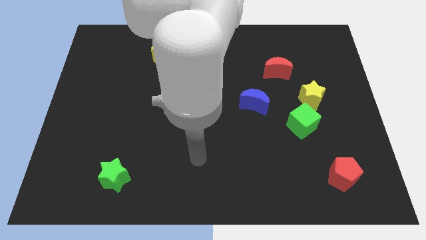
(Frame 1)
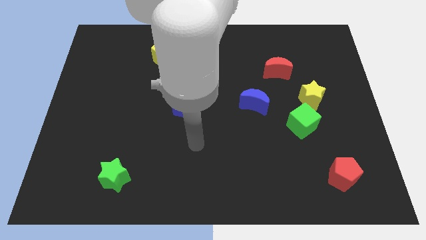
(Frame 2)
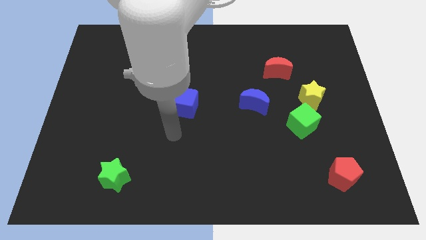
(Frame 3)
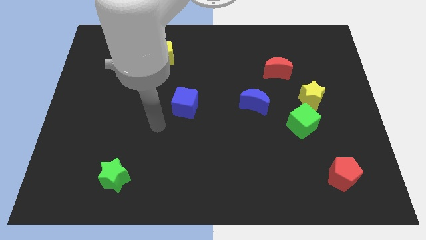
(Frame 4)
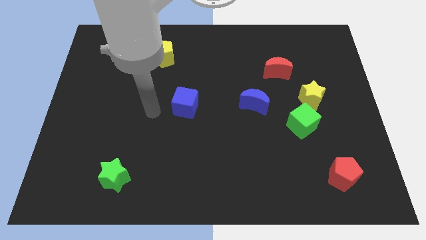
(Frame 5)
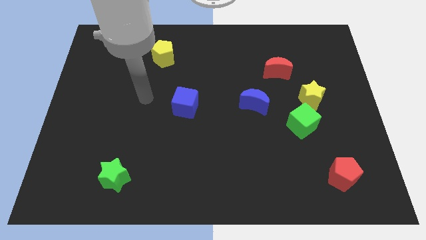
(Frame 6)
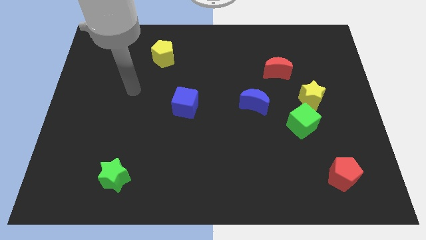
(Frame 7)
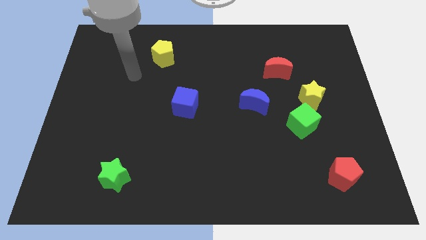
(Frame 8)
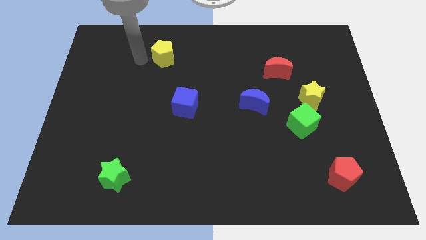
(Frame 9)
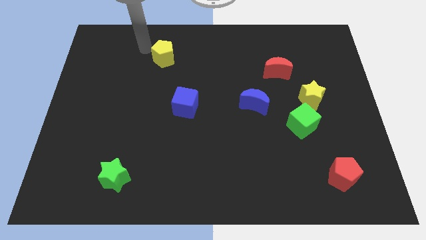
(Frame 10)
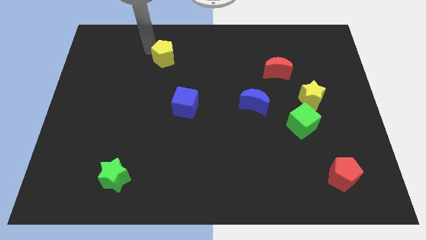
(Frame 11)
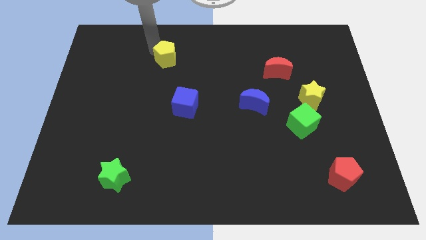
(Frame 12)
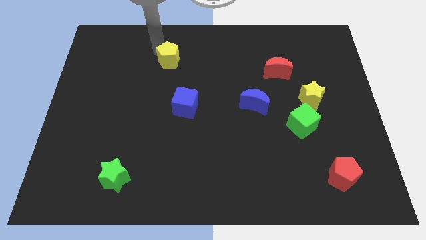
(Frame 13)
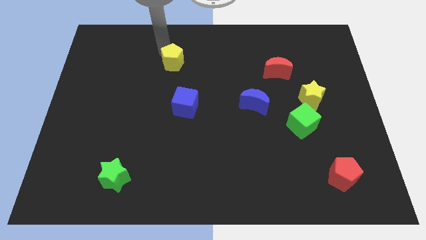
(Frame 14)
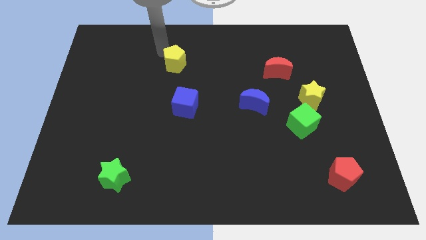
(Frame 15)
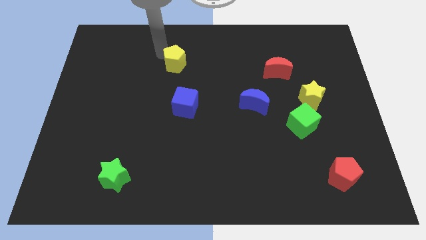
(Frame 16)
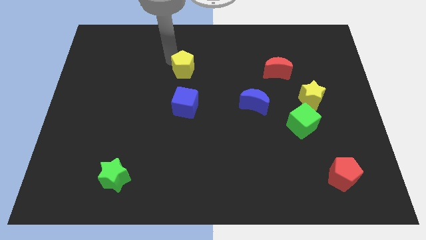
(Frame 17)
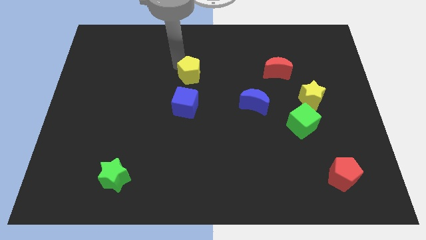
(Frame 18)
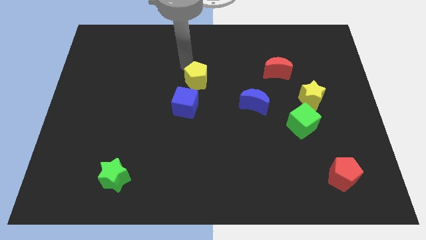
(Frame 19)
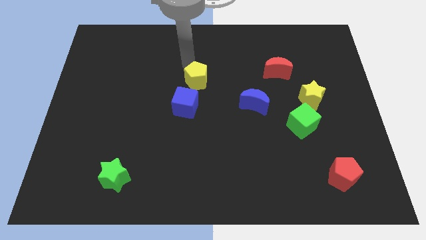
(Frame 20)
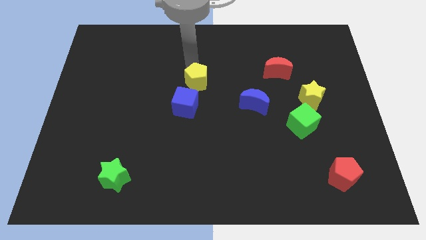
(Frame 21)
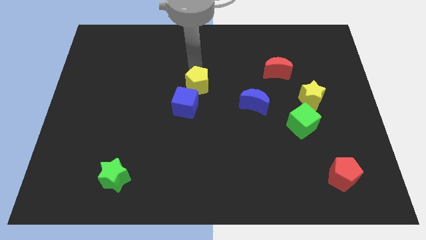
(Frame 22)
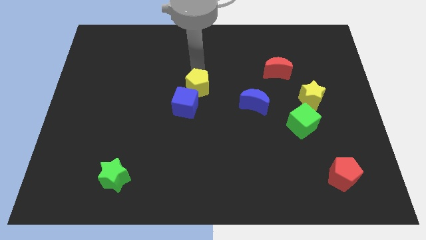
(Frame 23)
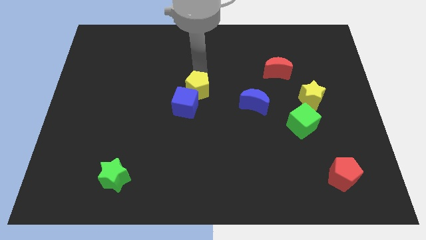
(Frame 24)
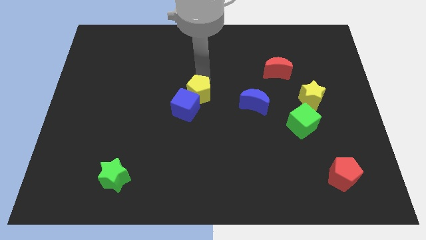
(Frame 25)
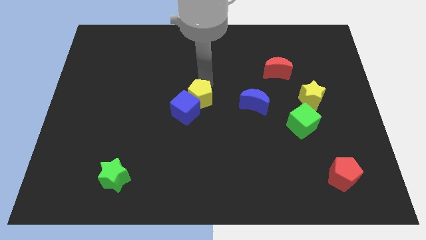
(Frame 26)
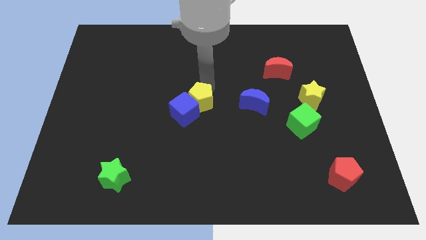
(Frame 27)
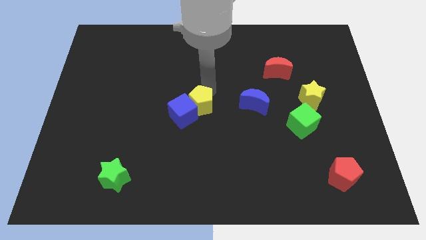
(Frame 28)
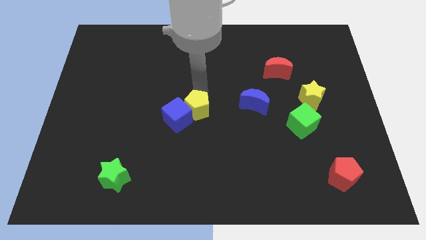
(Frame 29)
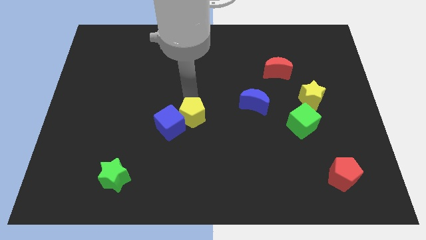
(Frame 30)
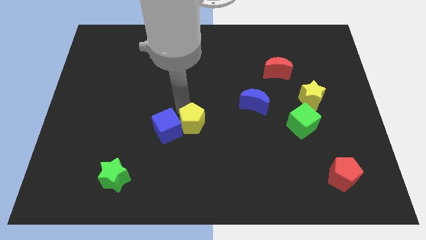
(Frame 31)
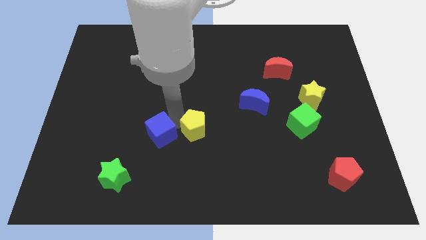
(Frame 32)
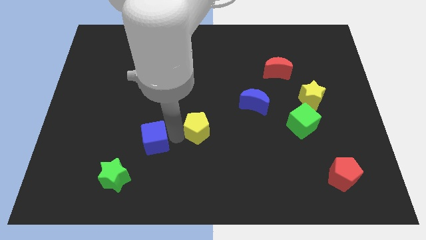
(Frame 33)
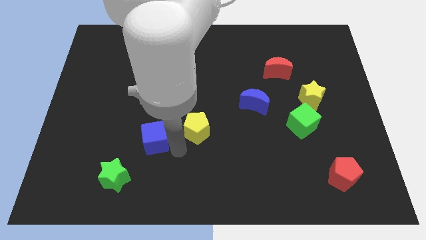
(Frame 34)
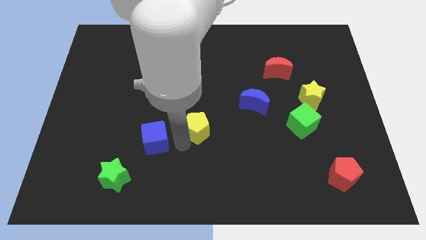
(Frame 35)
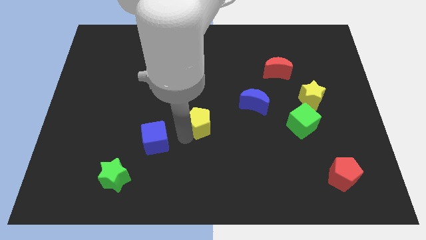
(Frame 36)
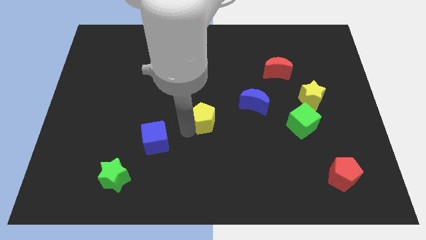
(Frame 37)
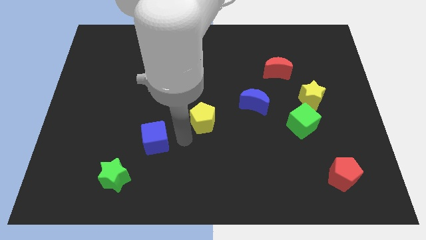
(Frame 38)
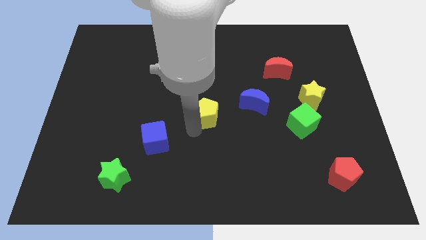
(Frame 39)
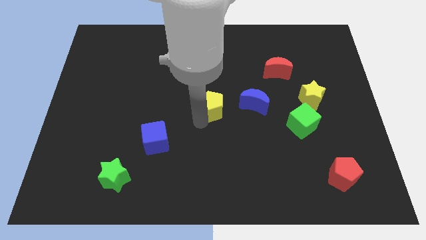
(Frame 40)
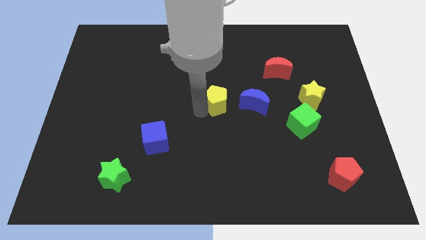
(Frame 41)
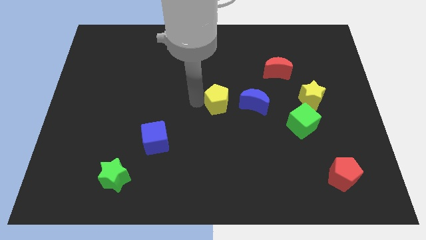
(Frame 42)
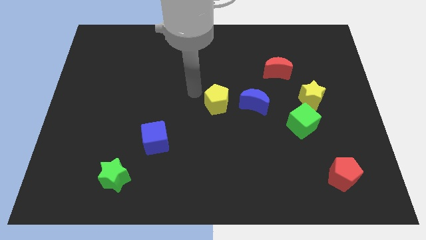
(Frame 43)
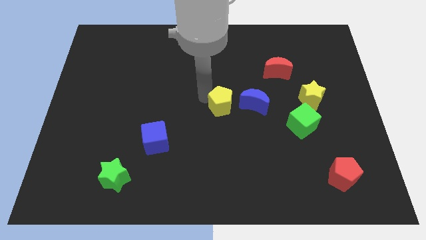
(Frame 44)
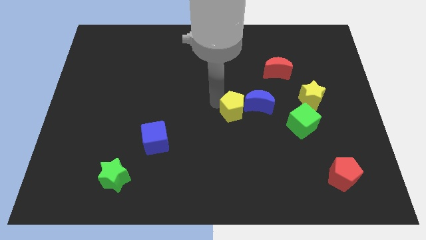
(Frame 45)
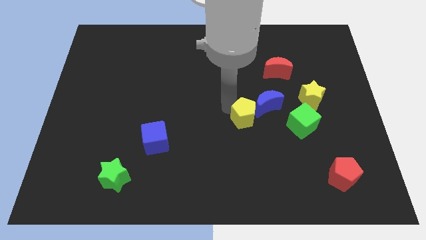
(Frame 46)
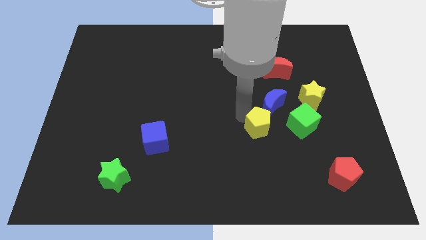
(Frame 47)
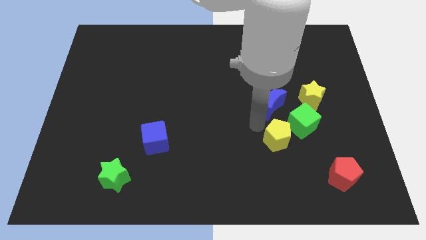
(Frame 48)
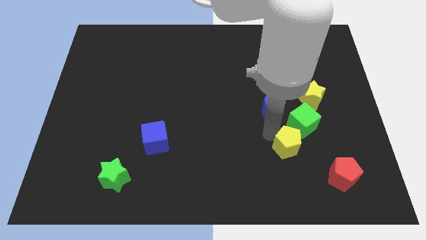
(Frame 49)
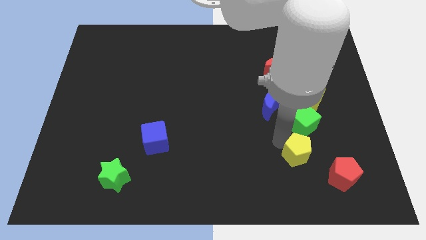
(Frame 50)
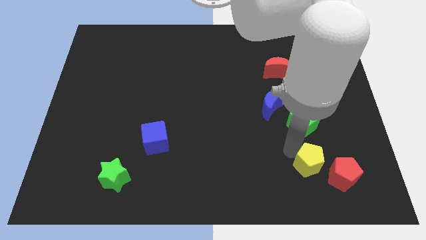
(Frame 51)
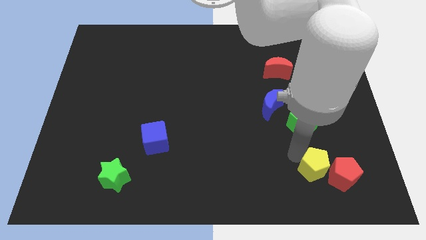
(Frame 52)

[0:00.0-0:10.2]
slide the yellow pentagon next to the red pentagon

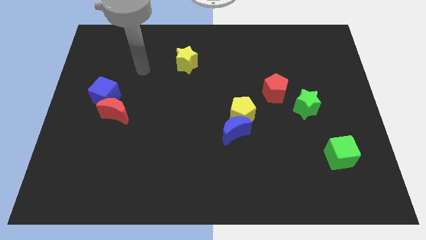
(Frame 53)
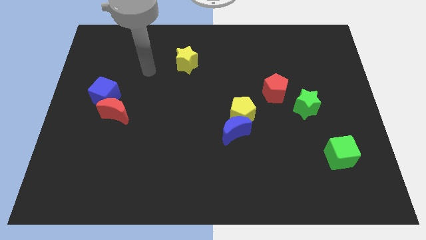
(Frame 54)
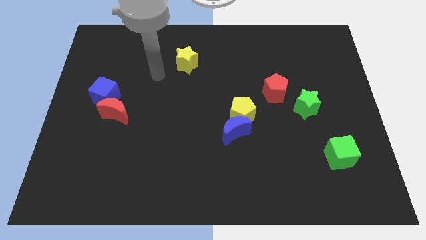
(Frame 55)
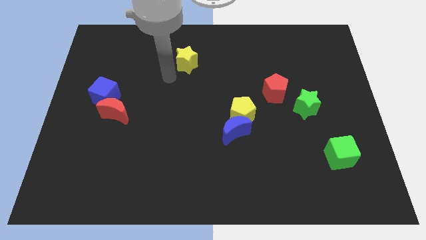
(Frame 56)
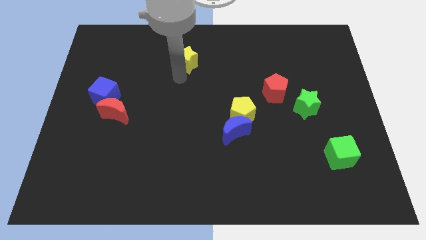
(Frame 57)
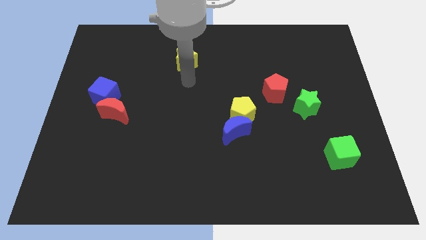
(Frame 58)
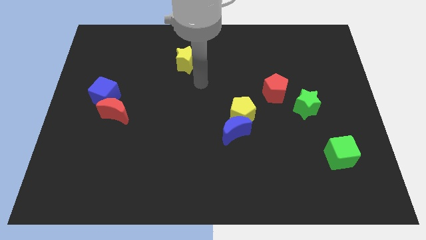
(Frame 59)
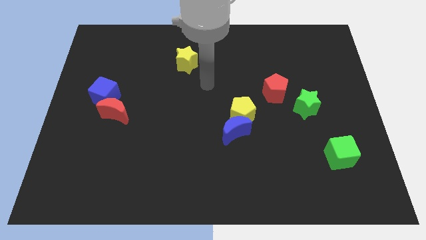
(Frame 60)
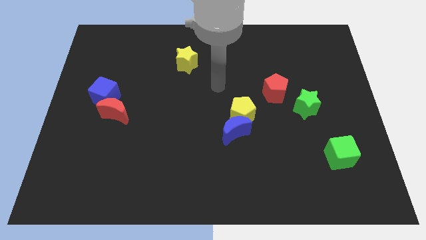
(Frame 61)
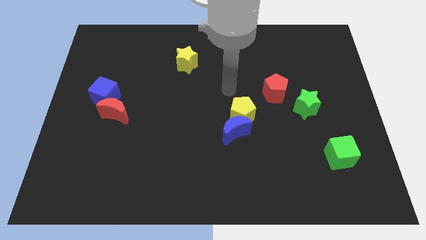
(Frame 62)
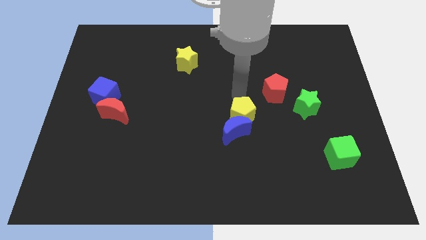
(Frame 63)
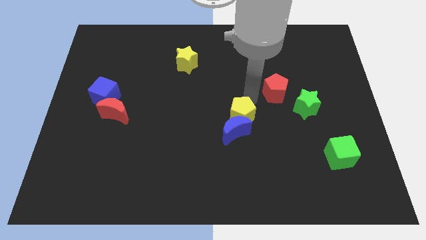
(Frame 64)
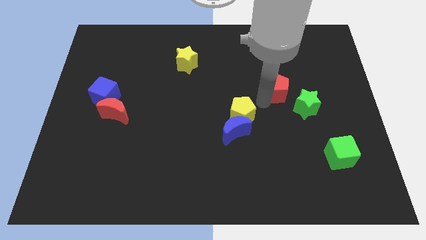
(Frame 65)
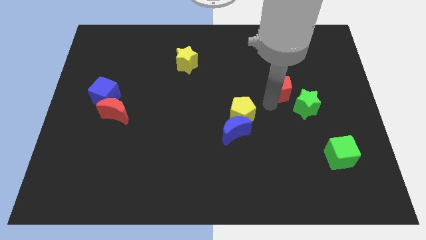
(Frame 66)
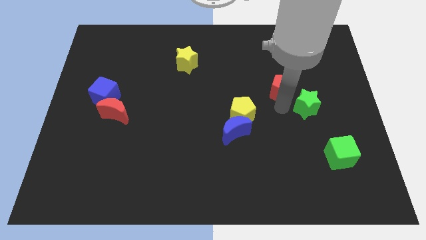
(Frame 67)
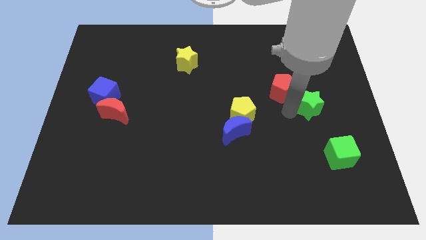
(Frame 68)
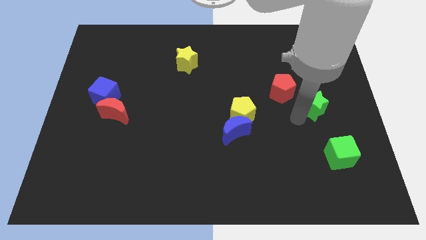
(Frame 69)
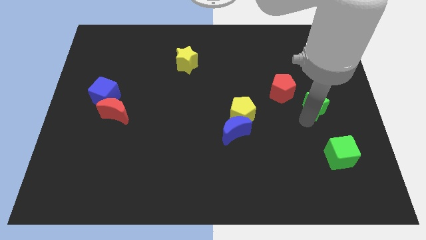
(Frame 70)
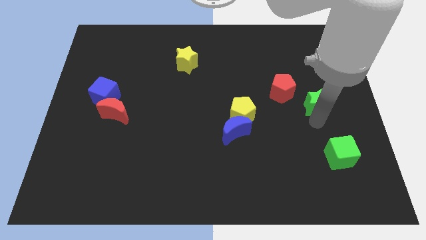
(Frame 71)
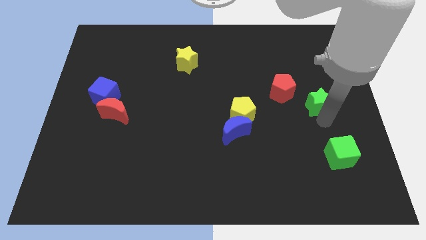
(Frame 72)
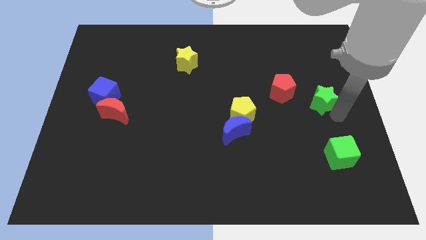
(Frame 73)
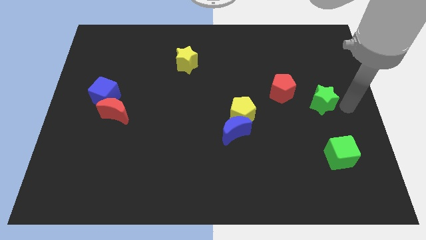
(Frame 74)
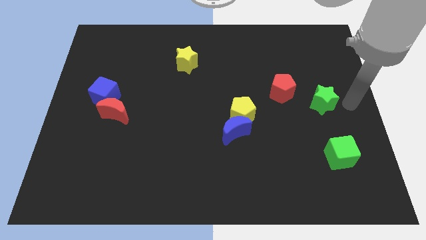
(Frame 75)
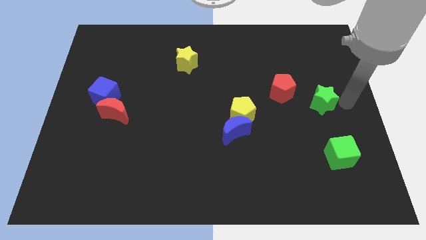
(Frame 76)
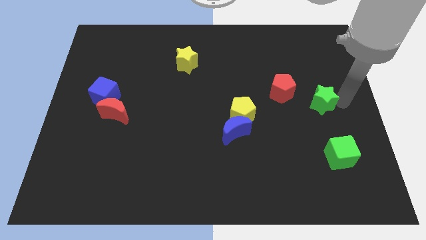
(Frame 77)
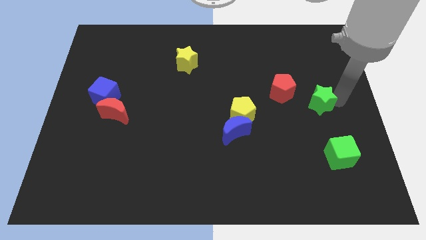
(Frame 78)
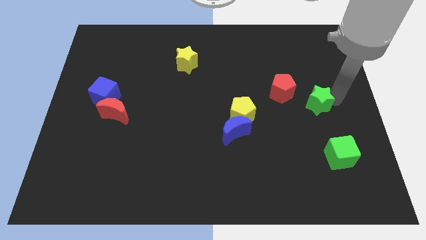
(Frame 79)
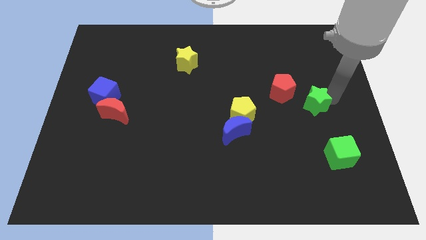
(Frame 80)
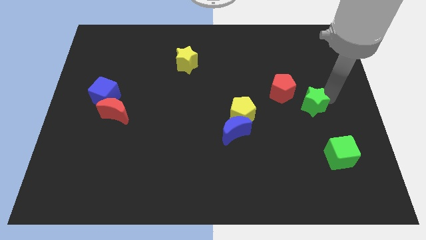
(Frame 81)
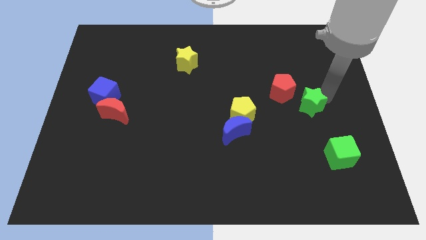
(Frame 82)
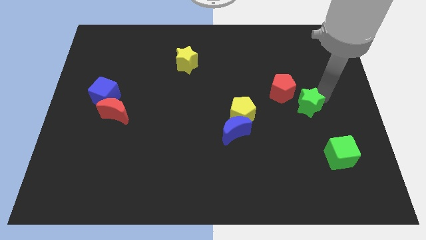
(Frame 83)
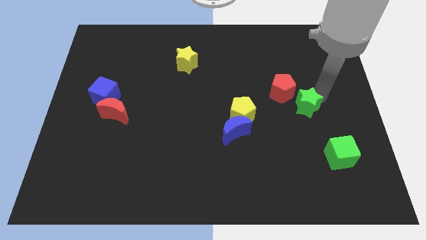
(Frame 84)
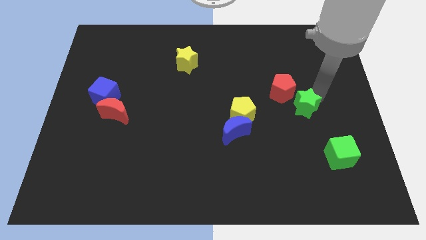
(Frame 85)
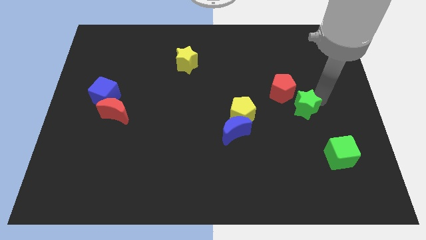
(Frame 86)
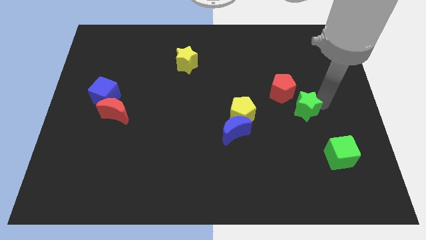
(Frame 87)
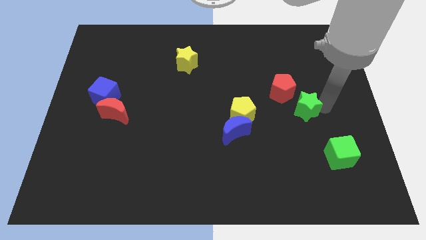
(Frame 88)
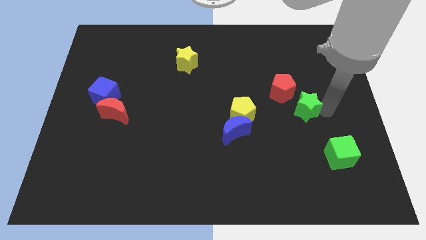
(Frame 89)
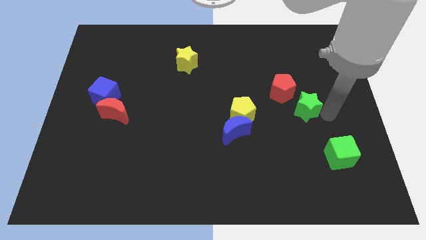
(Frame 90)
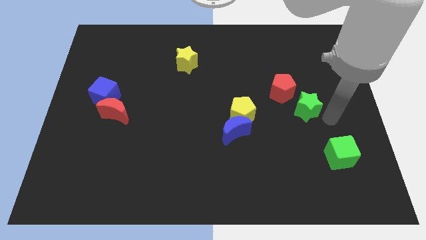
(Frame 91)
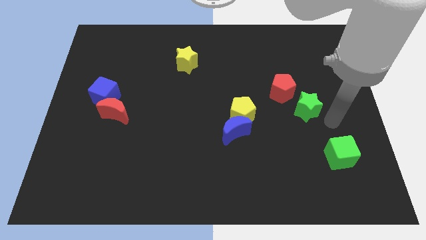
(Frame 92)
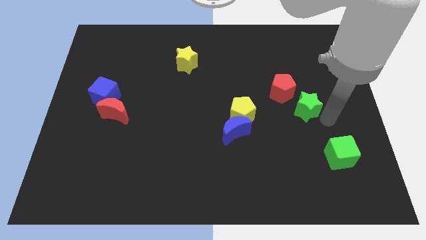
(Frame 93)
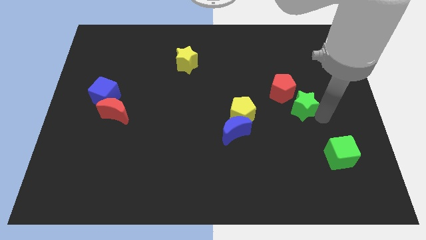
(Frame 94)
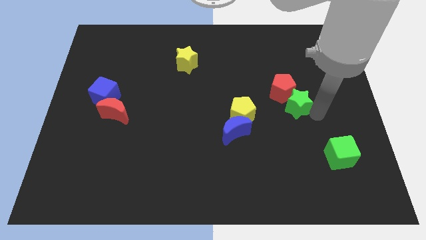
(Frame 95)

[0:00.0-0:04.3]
move the green star to the red pentagon
